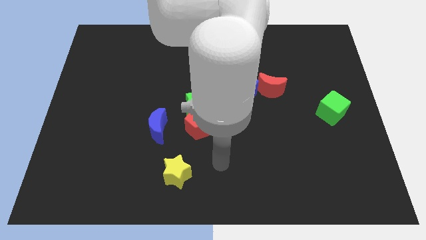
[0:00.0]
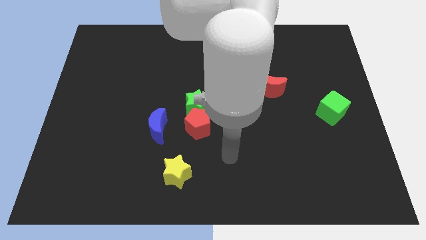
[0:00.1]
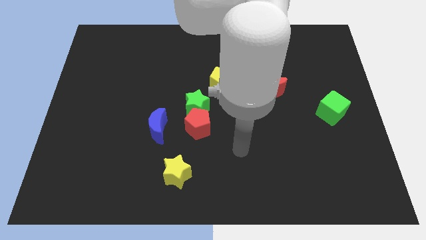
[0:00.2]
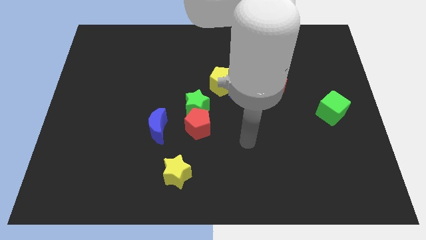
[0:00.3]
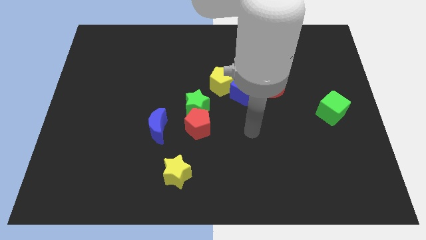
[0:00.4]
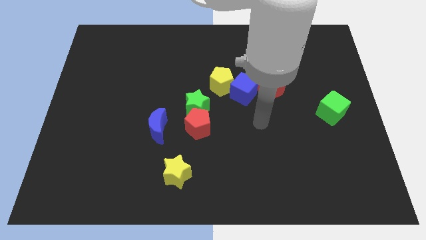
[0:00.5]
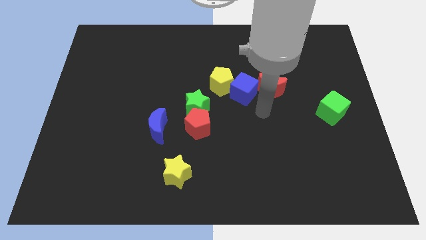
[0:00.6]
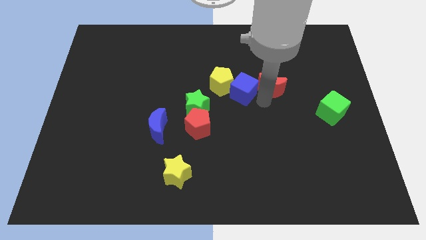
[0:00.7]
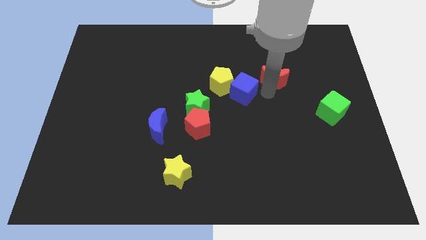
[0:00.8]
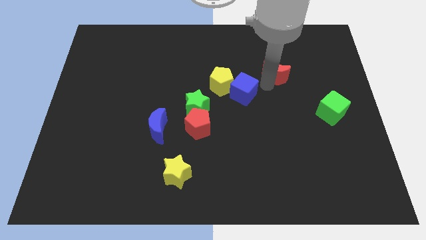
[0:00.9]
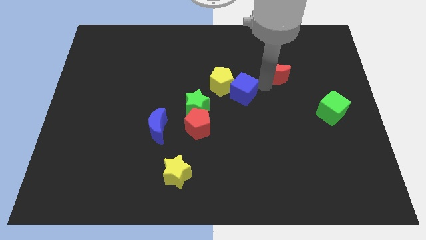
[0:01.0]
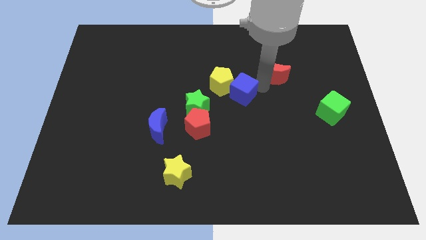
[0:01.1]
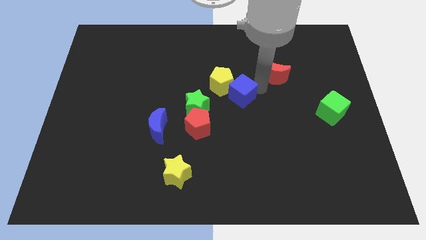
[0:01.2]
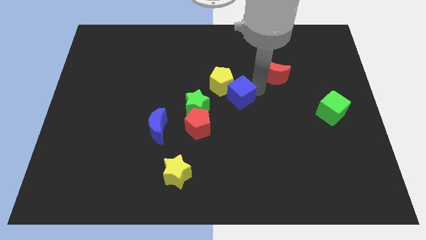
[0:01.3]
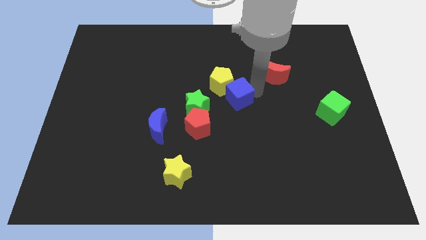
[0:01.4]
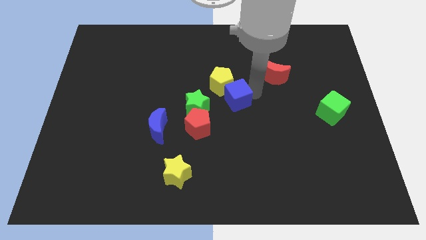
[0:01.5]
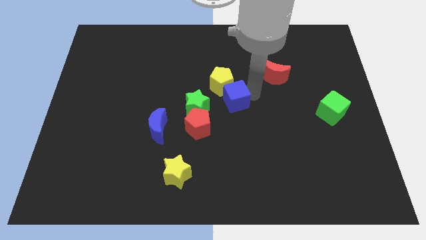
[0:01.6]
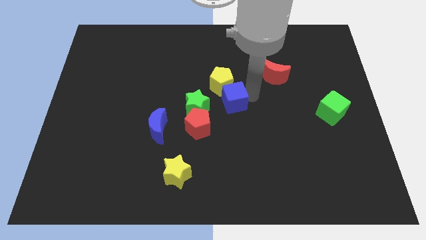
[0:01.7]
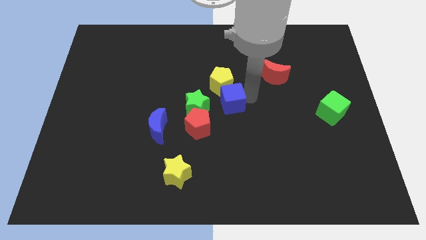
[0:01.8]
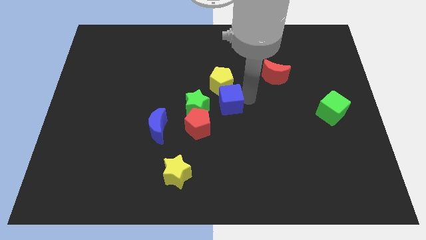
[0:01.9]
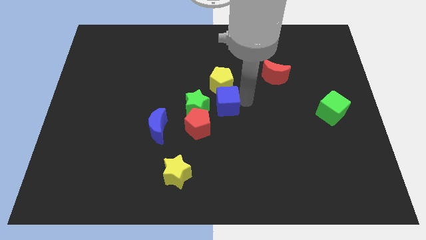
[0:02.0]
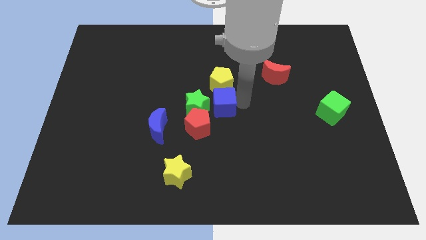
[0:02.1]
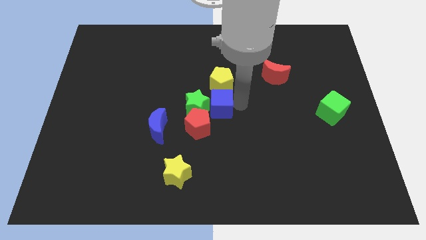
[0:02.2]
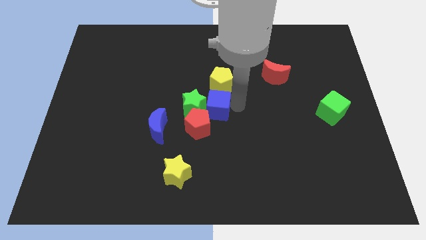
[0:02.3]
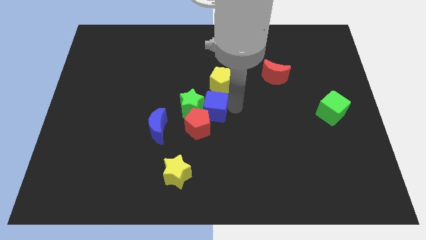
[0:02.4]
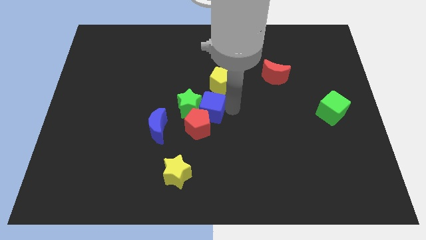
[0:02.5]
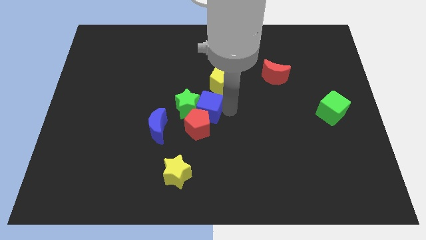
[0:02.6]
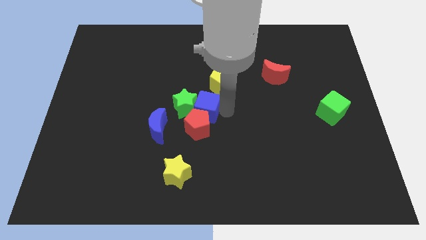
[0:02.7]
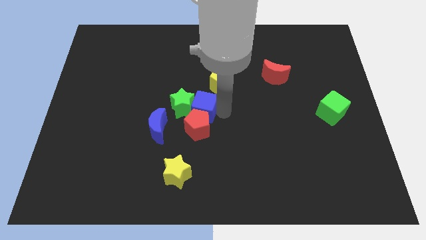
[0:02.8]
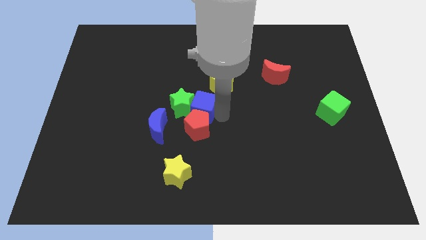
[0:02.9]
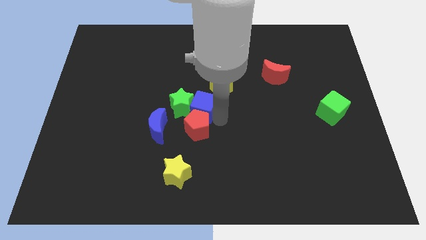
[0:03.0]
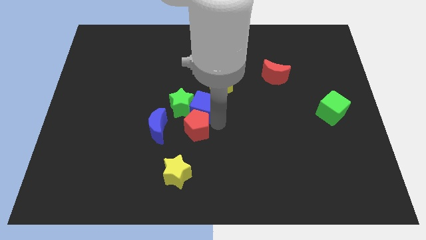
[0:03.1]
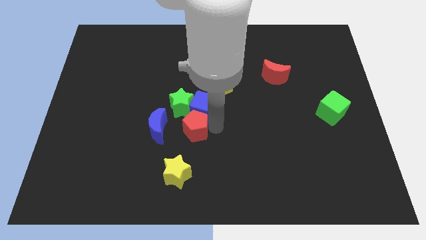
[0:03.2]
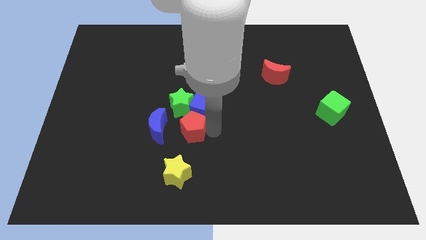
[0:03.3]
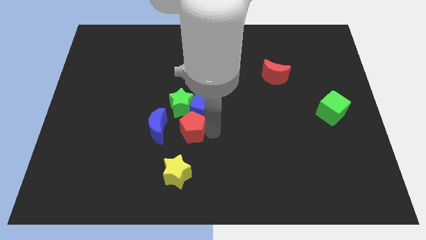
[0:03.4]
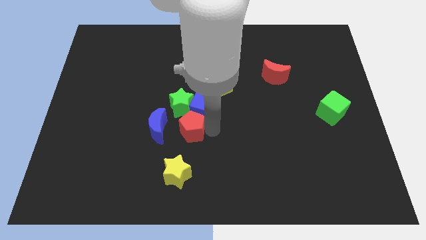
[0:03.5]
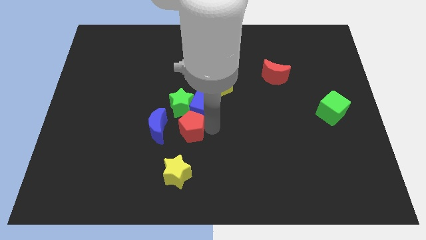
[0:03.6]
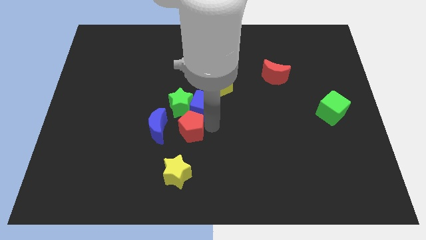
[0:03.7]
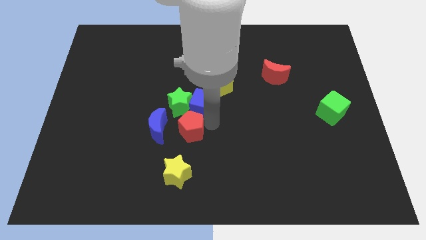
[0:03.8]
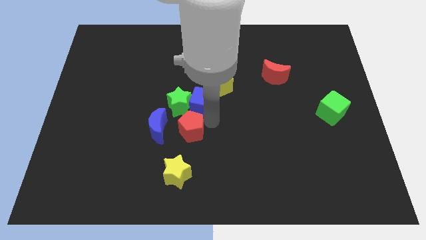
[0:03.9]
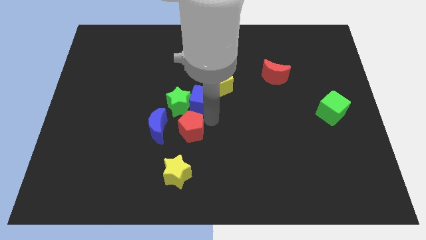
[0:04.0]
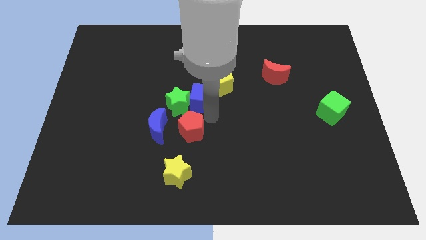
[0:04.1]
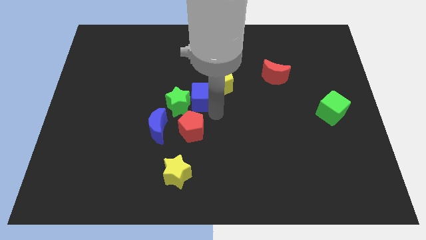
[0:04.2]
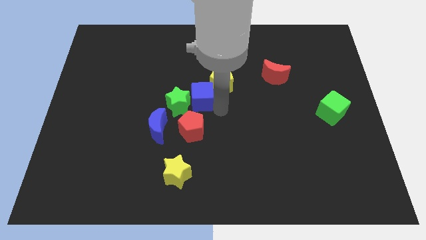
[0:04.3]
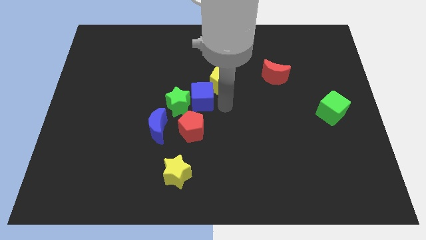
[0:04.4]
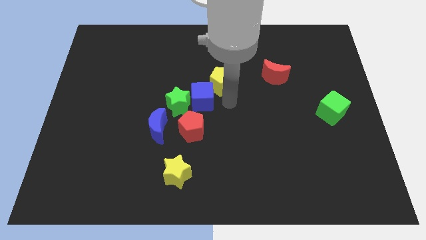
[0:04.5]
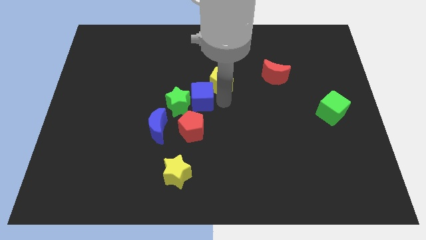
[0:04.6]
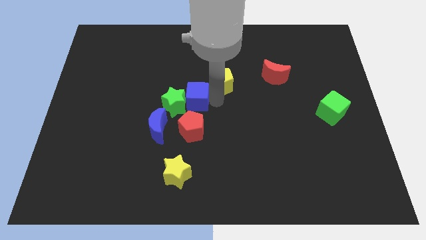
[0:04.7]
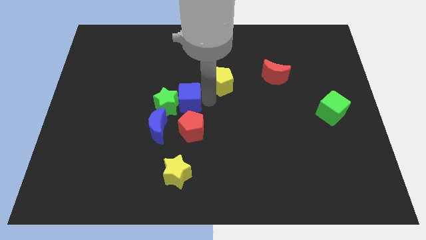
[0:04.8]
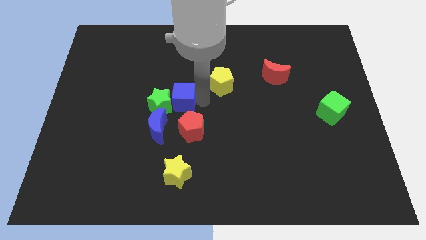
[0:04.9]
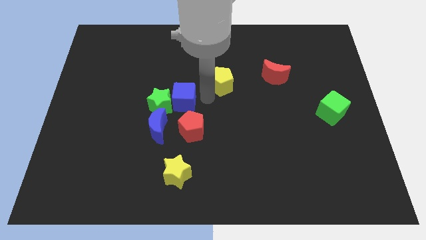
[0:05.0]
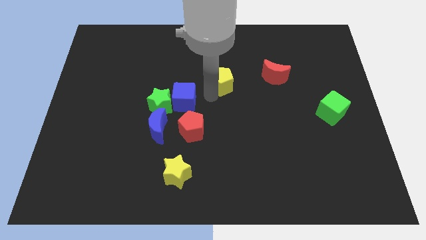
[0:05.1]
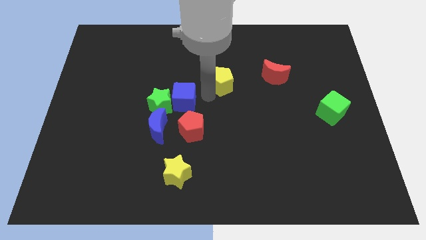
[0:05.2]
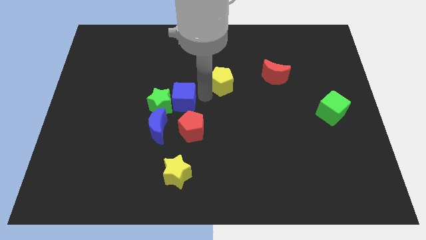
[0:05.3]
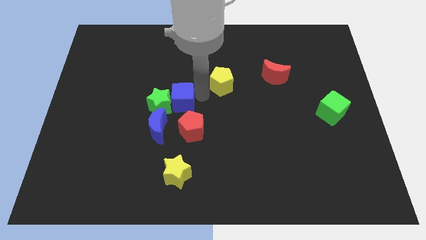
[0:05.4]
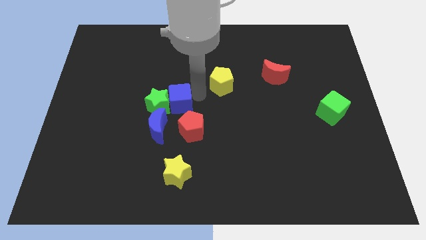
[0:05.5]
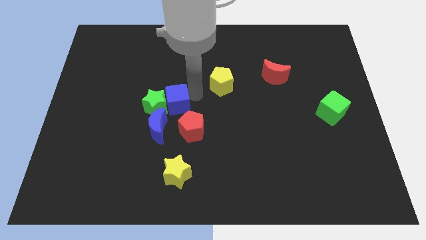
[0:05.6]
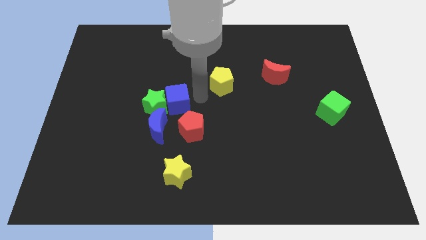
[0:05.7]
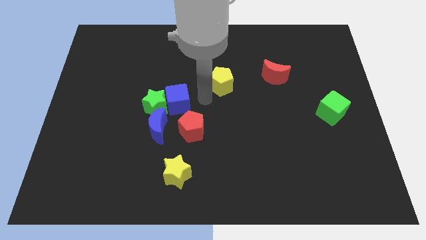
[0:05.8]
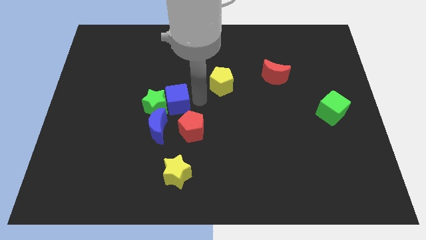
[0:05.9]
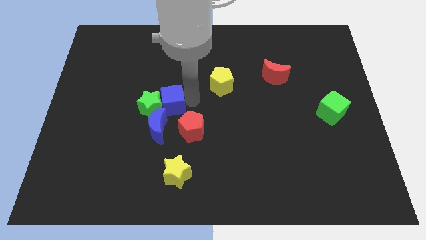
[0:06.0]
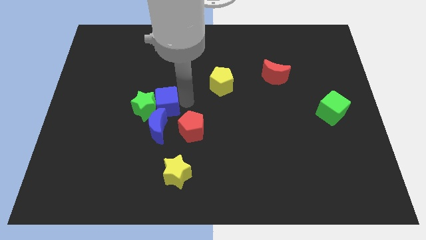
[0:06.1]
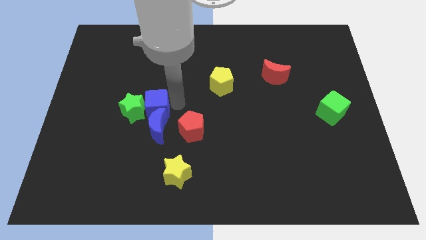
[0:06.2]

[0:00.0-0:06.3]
slide the blue cube to the left

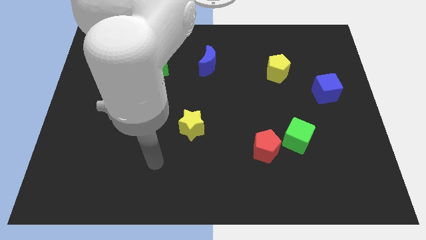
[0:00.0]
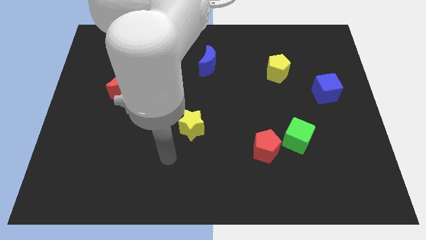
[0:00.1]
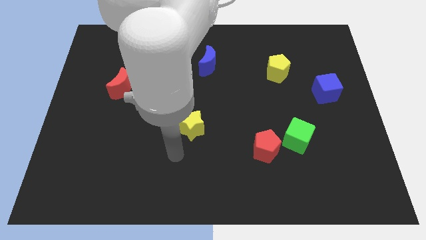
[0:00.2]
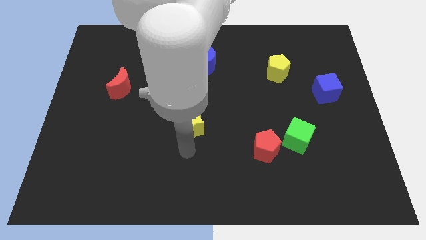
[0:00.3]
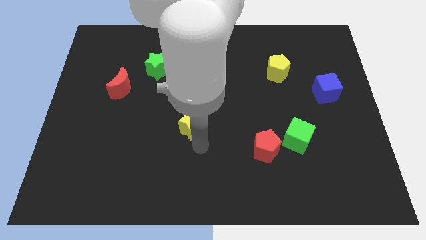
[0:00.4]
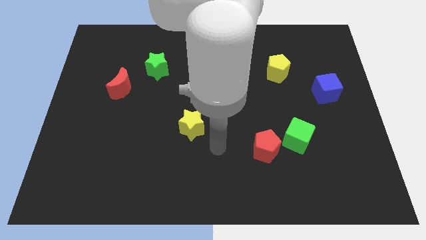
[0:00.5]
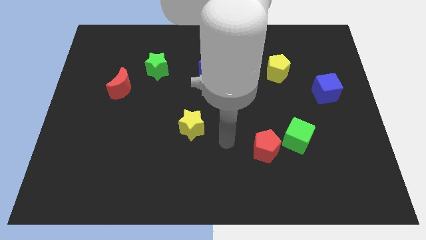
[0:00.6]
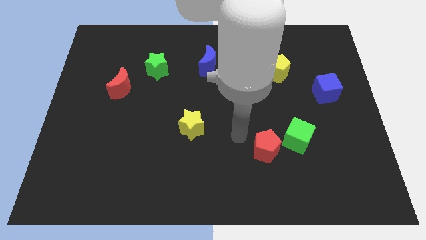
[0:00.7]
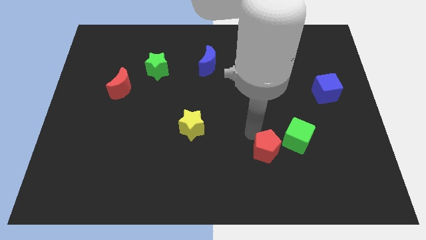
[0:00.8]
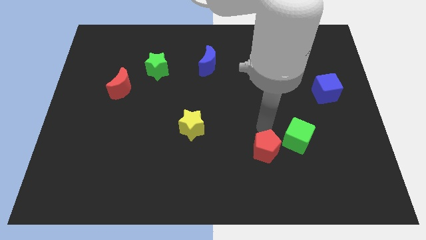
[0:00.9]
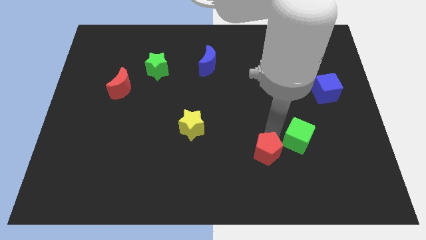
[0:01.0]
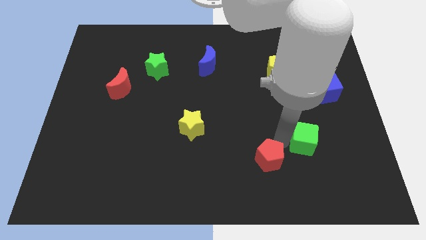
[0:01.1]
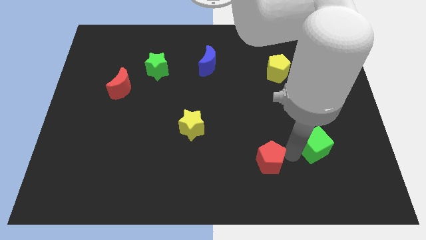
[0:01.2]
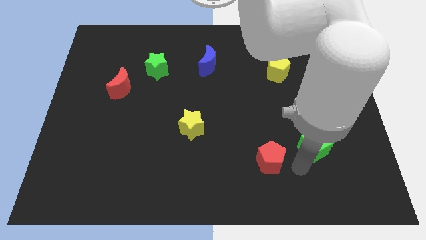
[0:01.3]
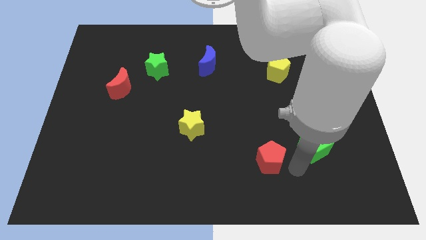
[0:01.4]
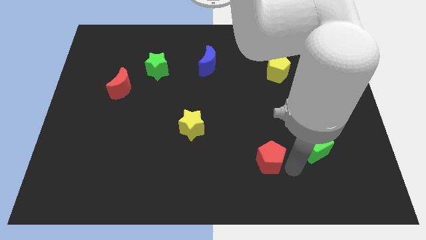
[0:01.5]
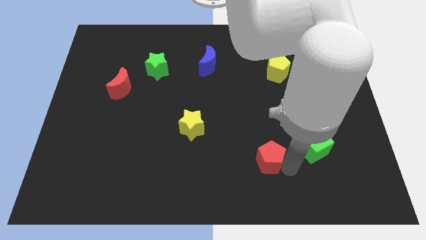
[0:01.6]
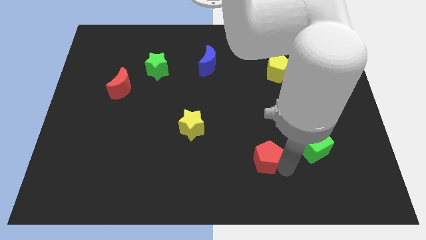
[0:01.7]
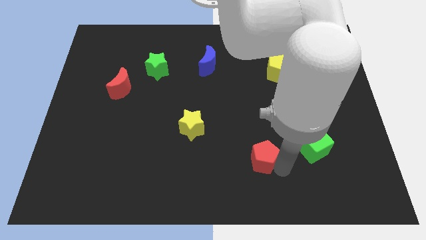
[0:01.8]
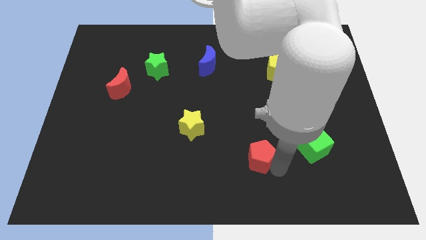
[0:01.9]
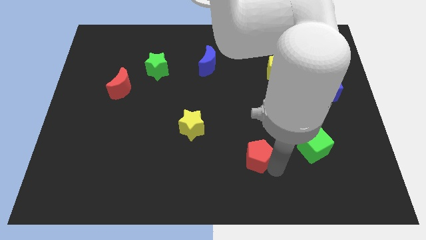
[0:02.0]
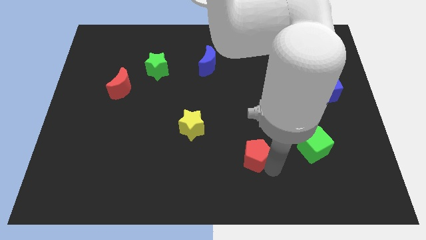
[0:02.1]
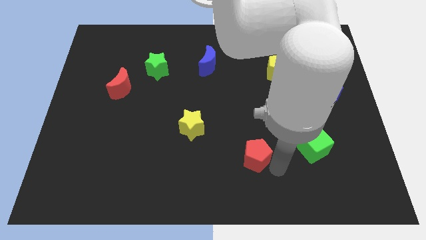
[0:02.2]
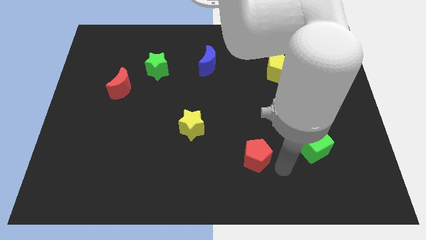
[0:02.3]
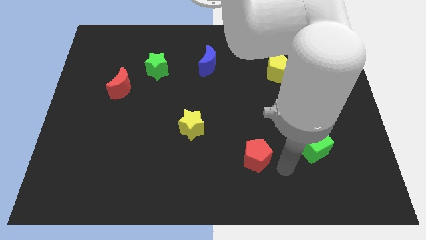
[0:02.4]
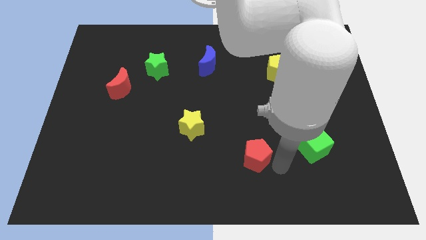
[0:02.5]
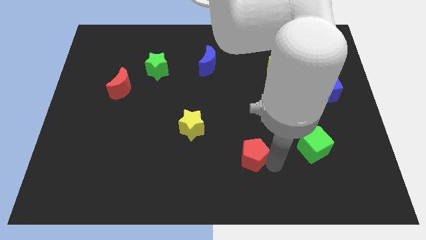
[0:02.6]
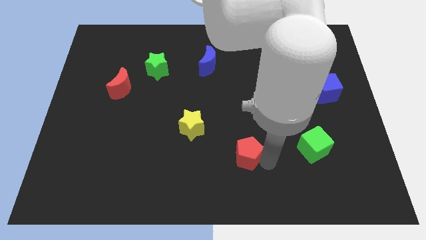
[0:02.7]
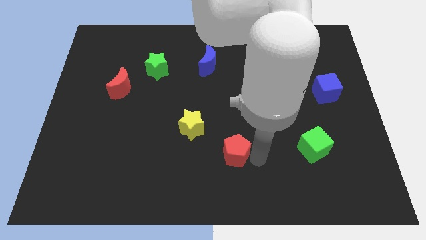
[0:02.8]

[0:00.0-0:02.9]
slide the red pentagon somewhat to the left
